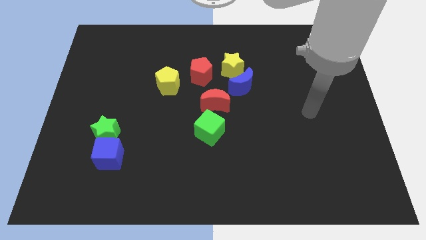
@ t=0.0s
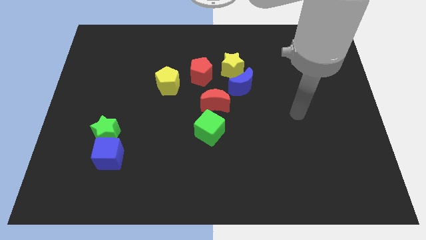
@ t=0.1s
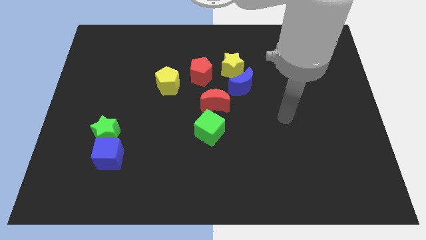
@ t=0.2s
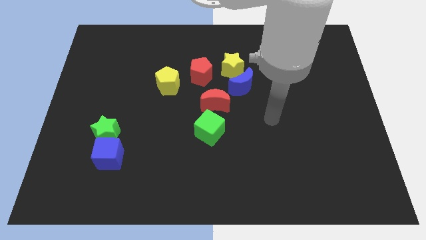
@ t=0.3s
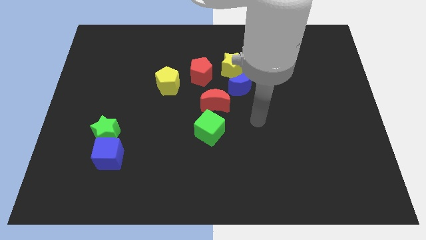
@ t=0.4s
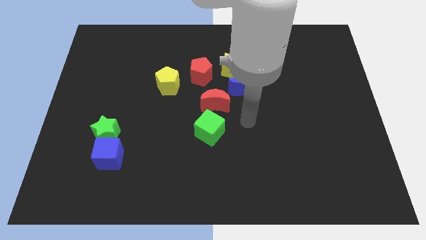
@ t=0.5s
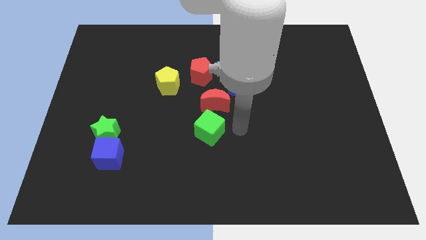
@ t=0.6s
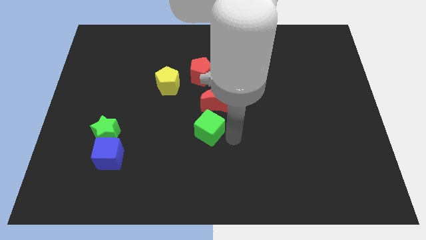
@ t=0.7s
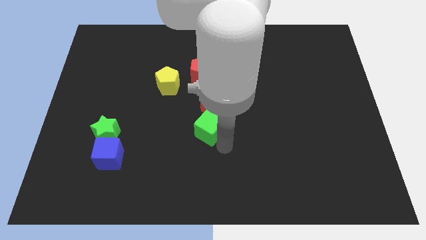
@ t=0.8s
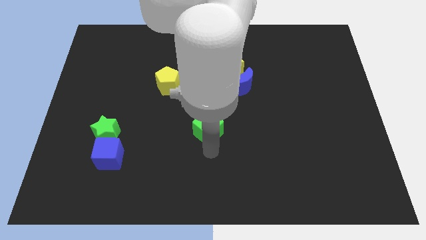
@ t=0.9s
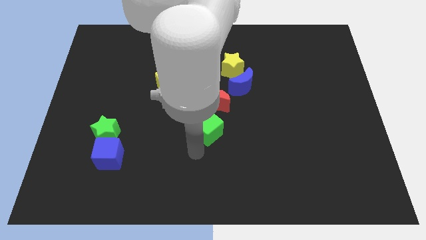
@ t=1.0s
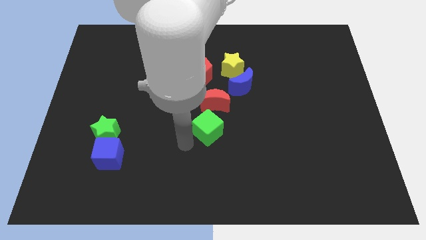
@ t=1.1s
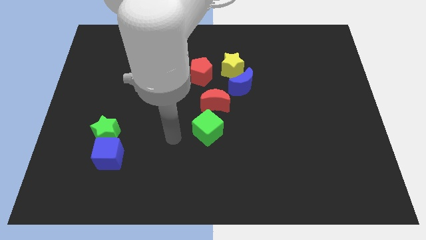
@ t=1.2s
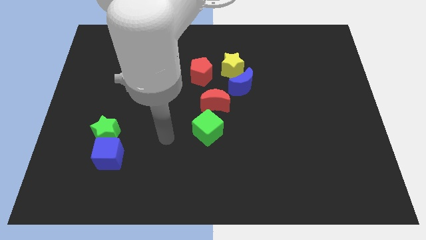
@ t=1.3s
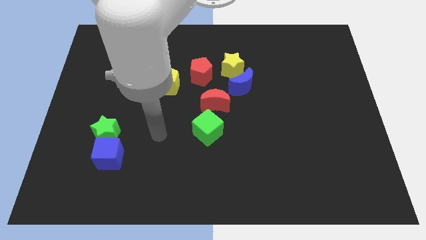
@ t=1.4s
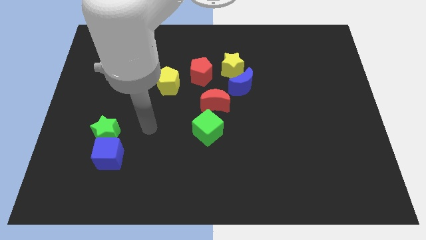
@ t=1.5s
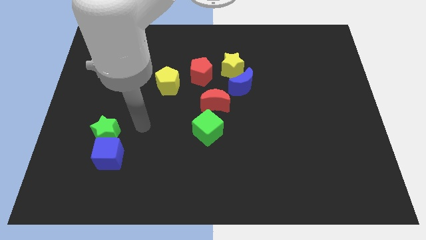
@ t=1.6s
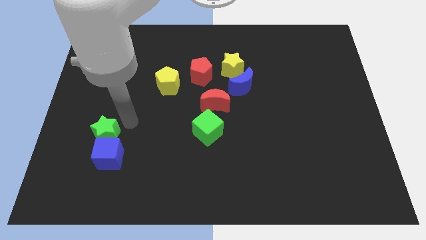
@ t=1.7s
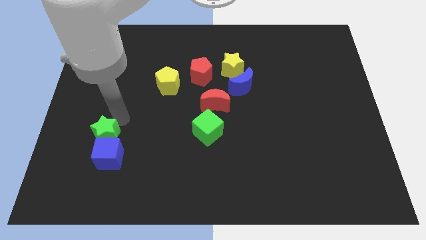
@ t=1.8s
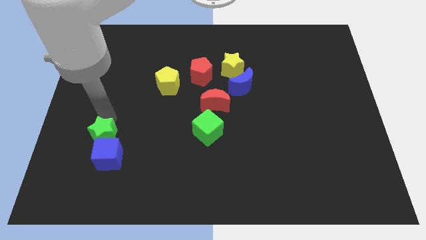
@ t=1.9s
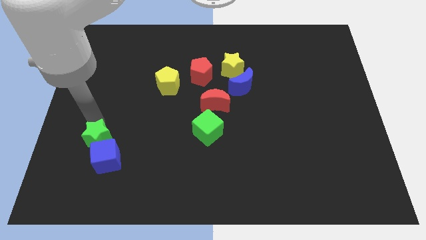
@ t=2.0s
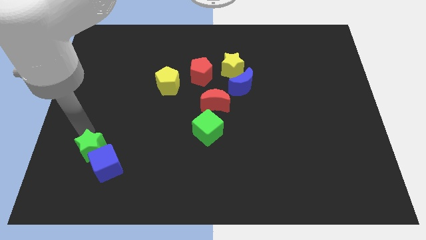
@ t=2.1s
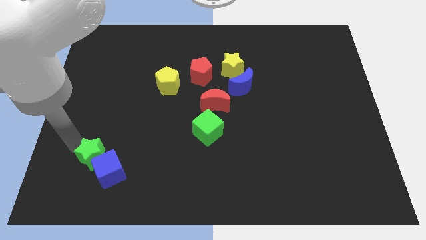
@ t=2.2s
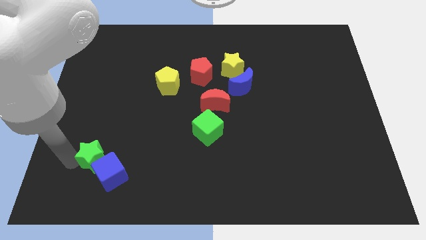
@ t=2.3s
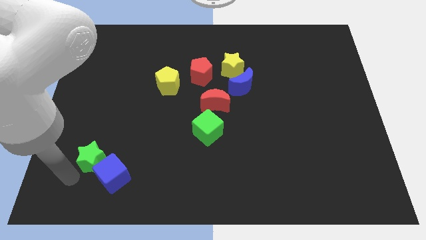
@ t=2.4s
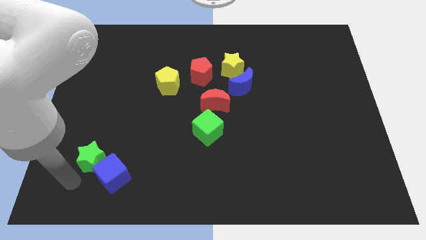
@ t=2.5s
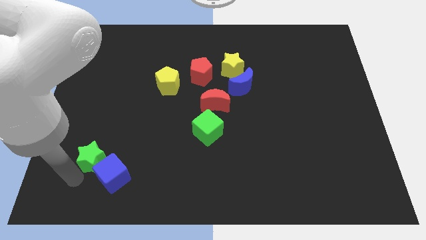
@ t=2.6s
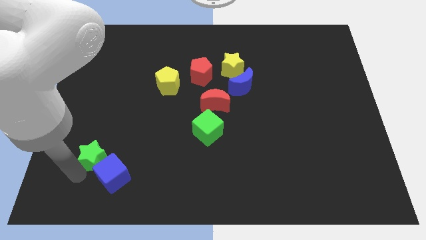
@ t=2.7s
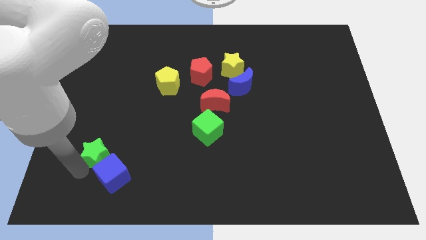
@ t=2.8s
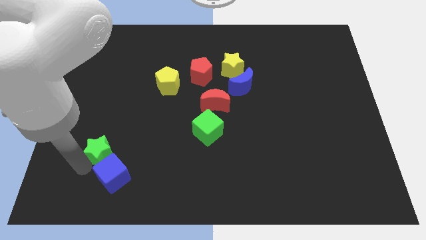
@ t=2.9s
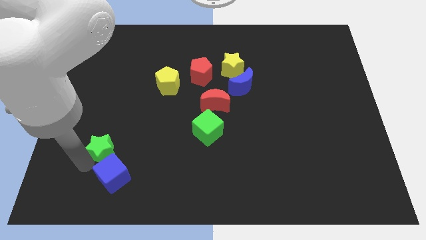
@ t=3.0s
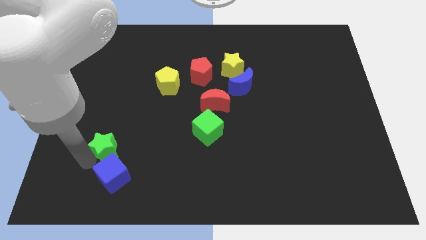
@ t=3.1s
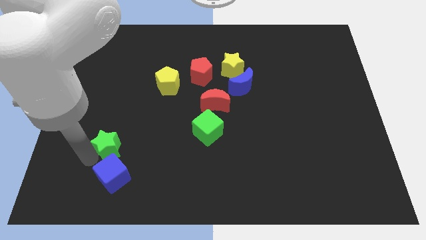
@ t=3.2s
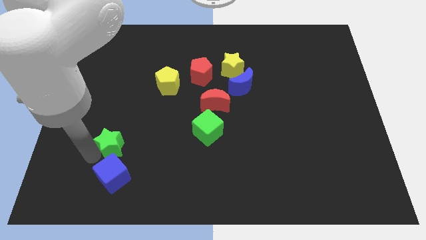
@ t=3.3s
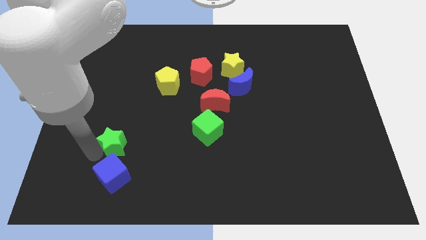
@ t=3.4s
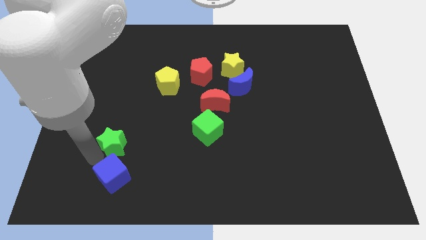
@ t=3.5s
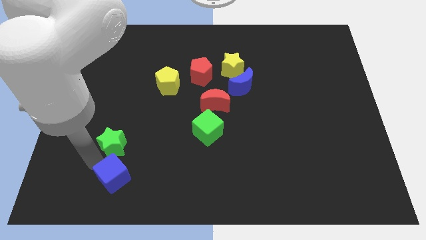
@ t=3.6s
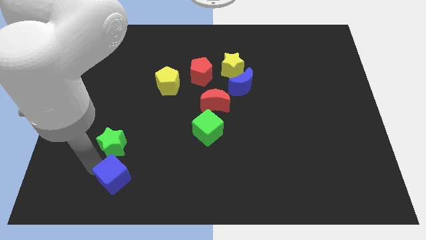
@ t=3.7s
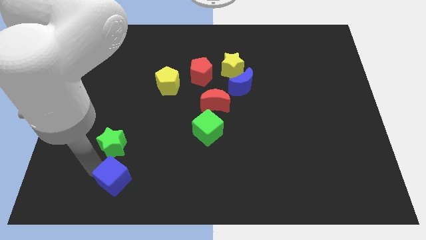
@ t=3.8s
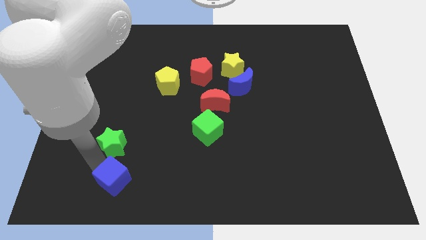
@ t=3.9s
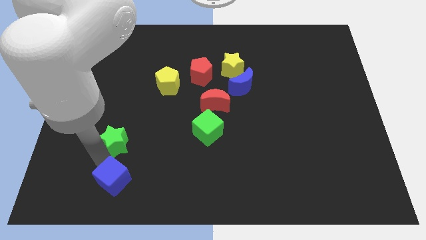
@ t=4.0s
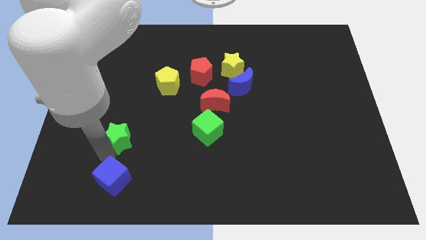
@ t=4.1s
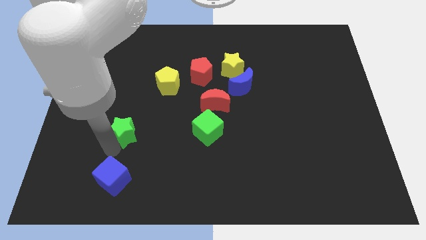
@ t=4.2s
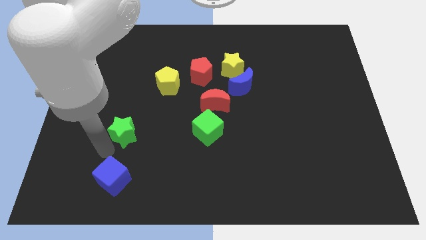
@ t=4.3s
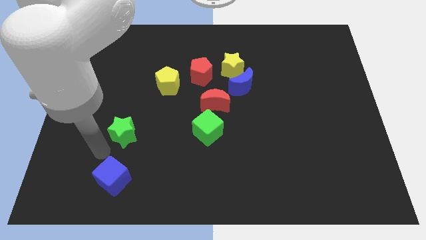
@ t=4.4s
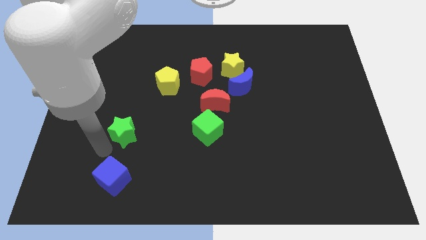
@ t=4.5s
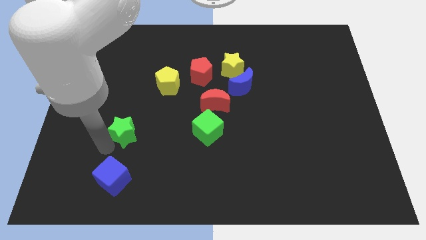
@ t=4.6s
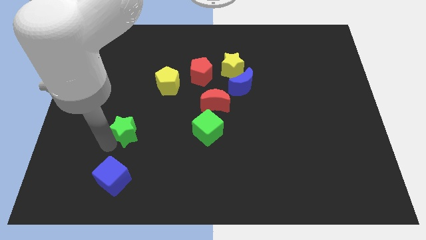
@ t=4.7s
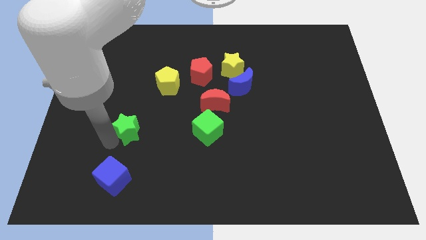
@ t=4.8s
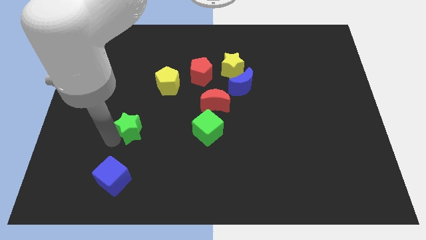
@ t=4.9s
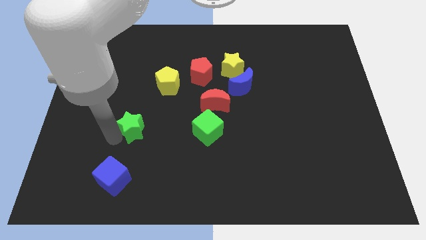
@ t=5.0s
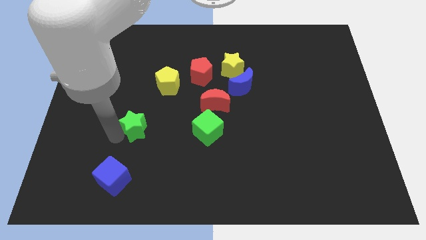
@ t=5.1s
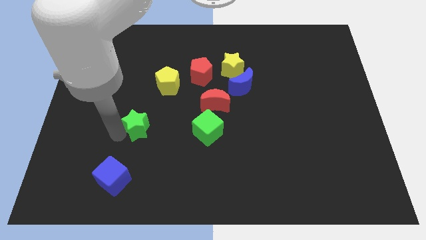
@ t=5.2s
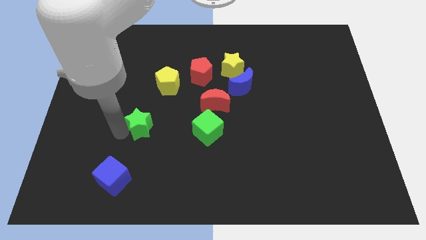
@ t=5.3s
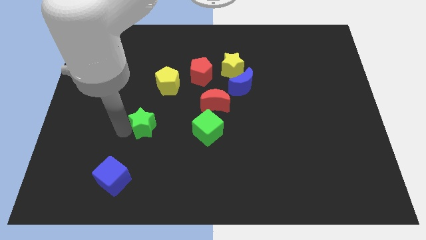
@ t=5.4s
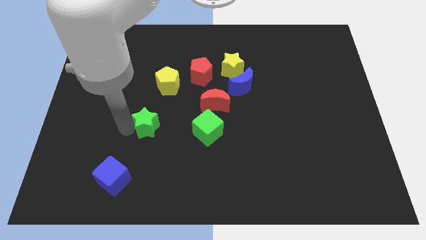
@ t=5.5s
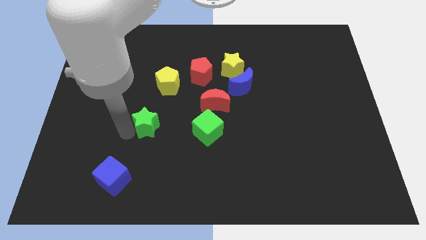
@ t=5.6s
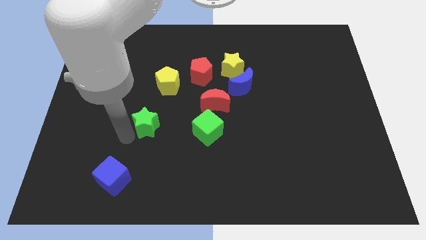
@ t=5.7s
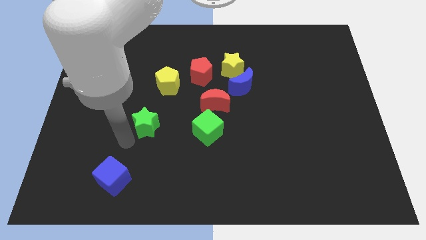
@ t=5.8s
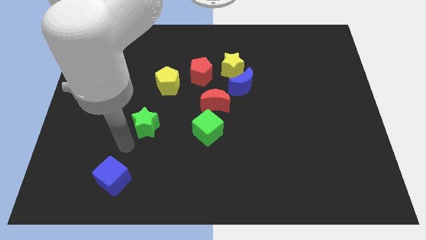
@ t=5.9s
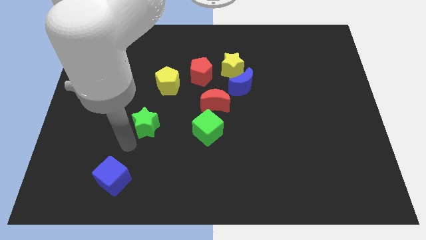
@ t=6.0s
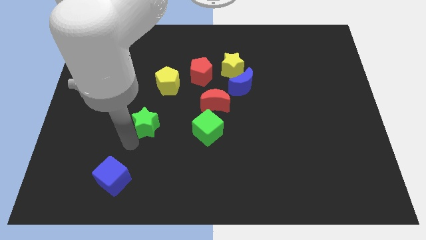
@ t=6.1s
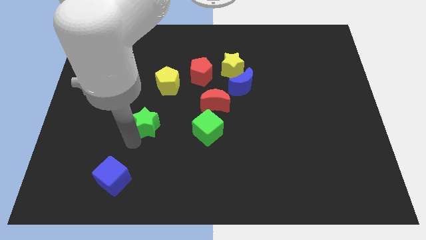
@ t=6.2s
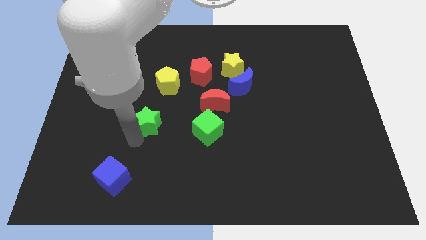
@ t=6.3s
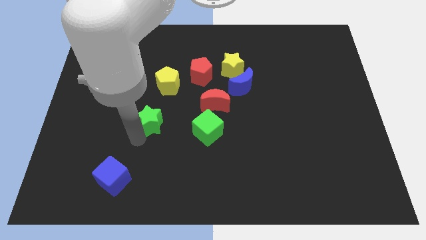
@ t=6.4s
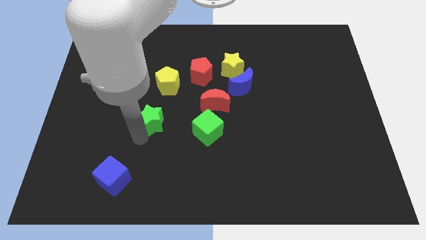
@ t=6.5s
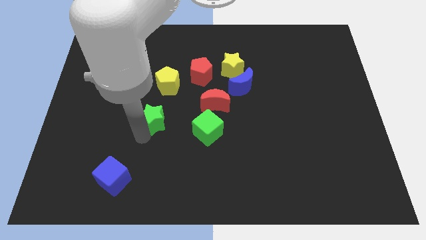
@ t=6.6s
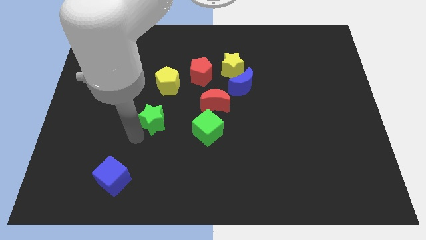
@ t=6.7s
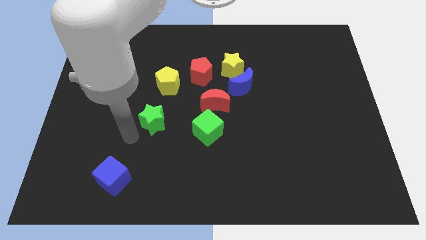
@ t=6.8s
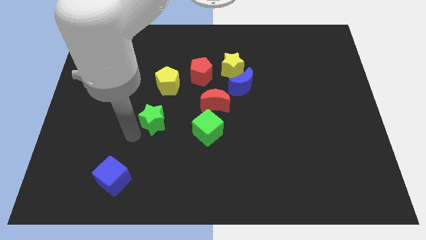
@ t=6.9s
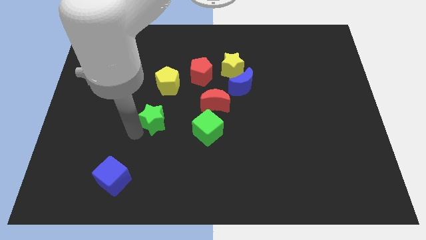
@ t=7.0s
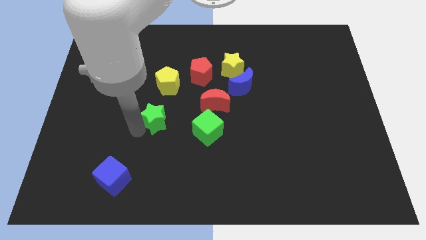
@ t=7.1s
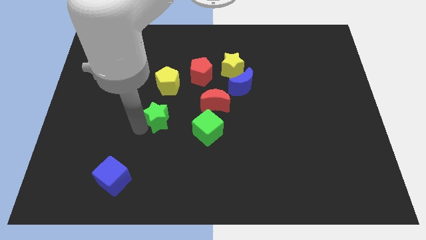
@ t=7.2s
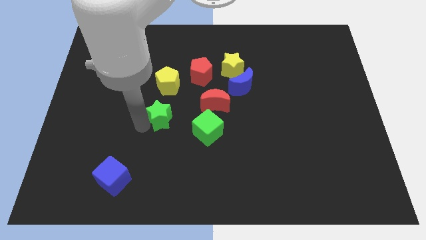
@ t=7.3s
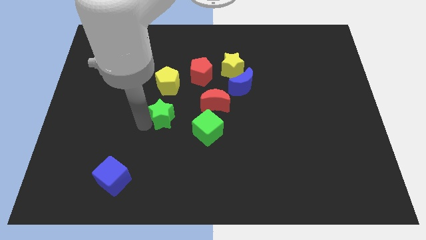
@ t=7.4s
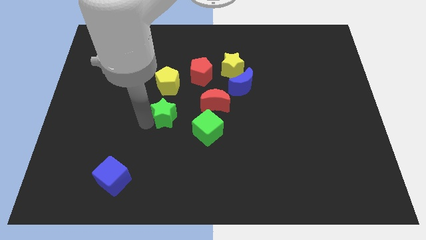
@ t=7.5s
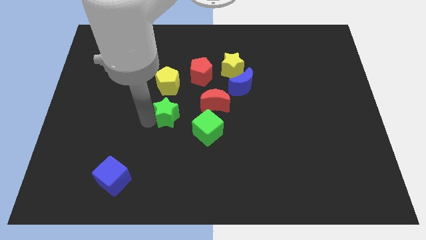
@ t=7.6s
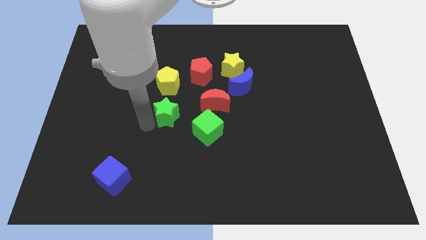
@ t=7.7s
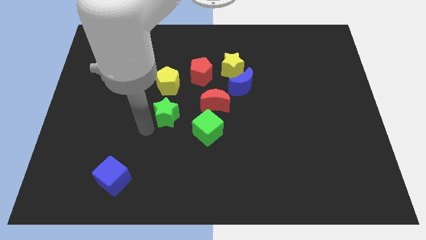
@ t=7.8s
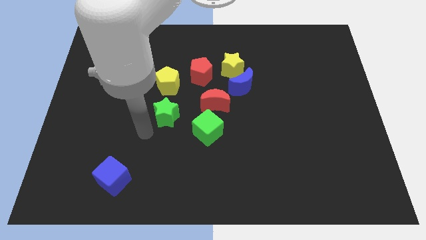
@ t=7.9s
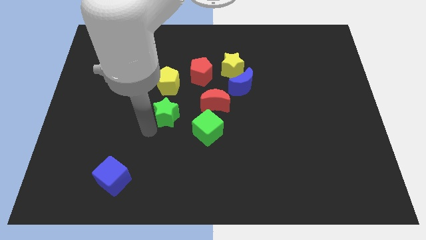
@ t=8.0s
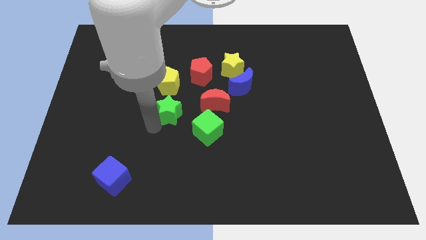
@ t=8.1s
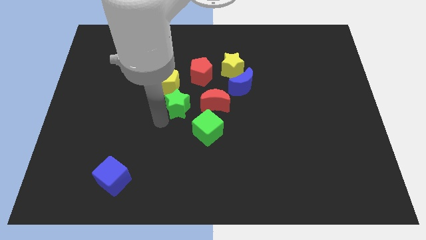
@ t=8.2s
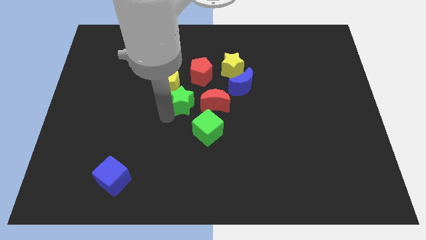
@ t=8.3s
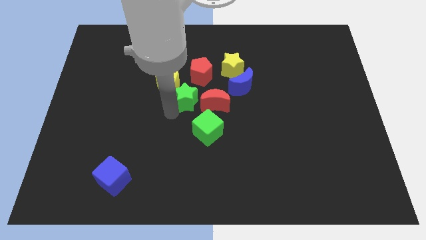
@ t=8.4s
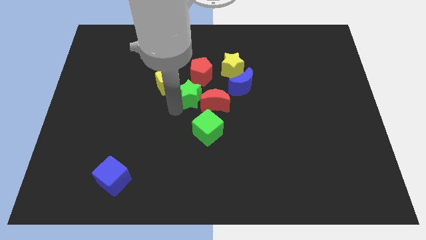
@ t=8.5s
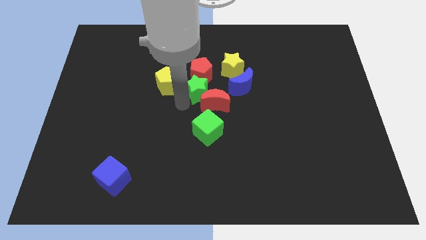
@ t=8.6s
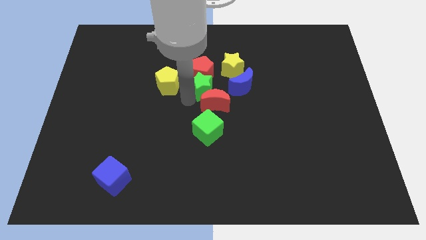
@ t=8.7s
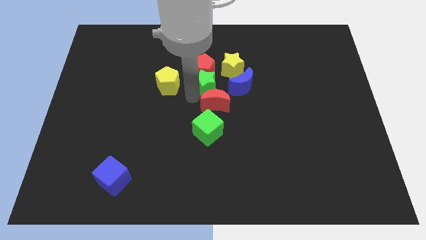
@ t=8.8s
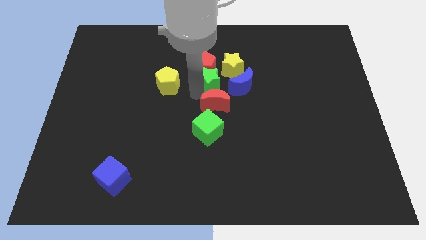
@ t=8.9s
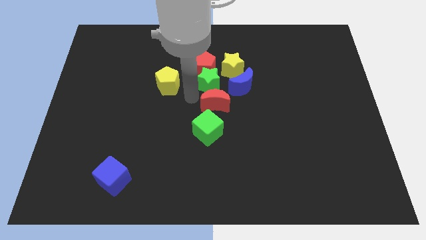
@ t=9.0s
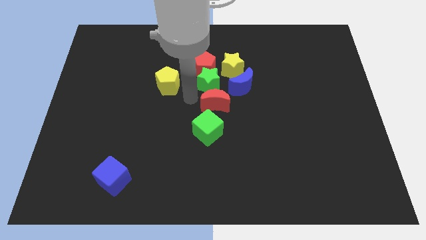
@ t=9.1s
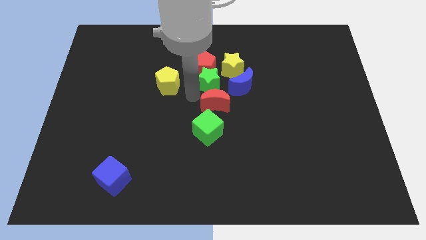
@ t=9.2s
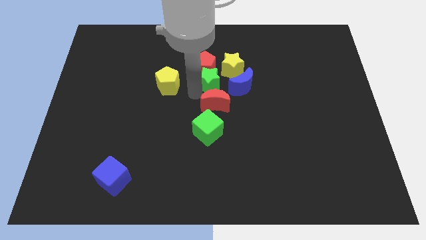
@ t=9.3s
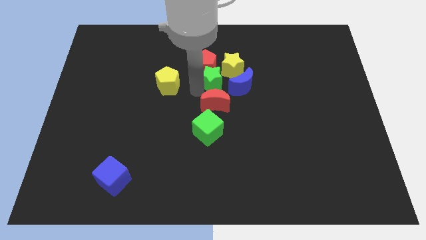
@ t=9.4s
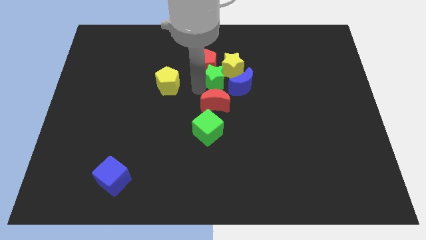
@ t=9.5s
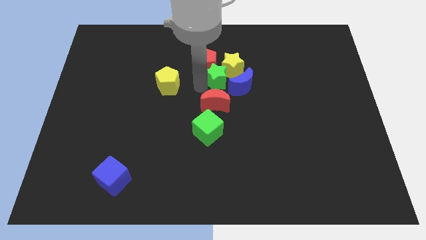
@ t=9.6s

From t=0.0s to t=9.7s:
put the green star next to the yellow star
